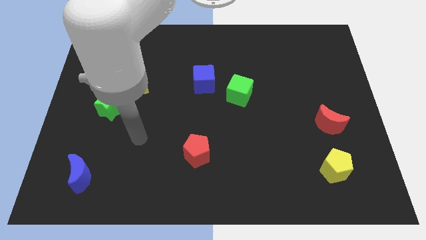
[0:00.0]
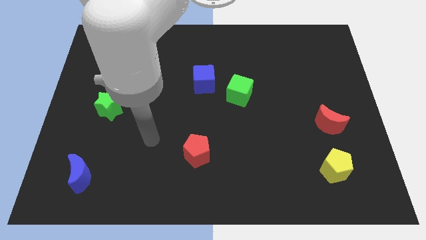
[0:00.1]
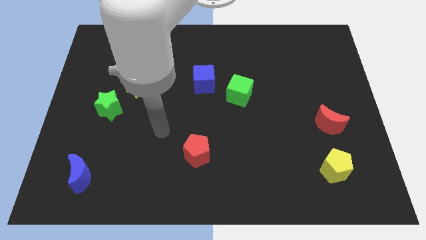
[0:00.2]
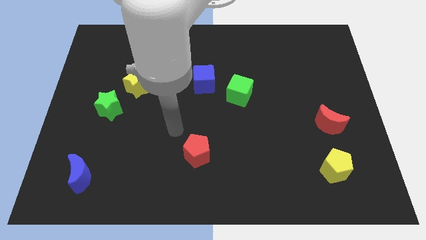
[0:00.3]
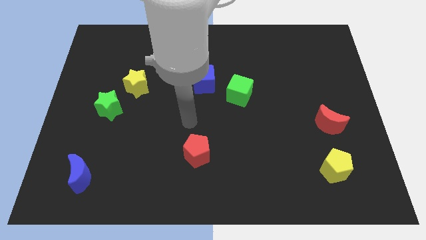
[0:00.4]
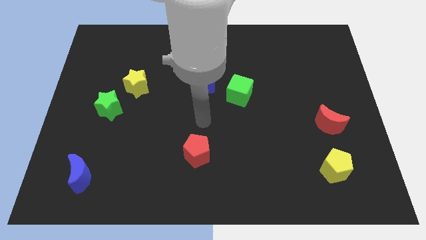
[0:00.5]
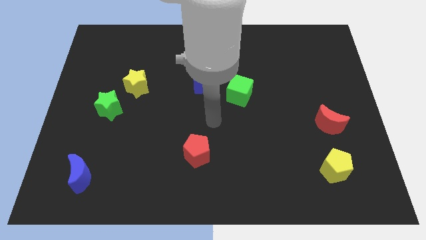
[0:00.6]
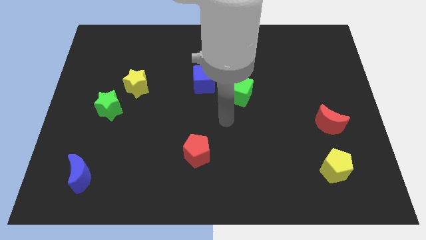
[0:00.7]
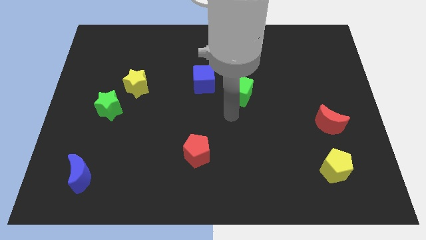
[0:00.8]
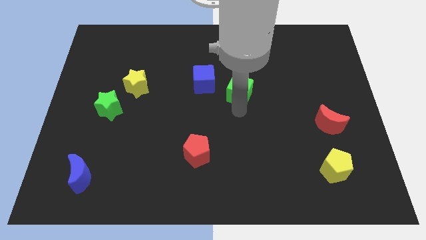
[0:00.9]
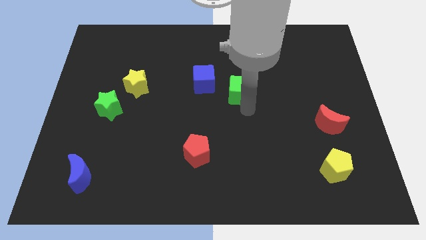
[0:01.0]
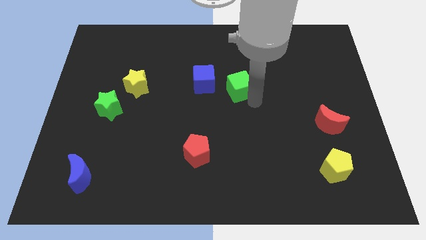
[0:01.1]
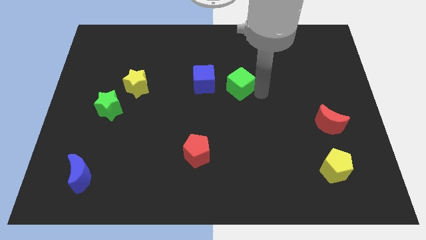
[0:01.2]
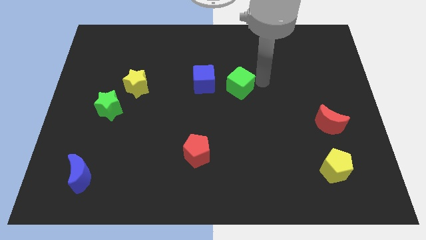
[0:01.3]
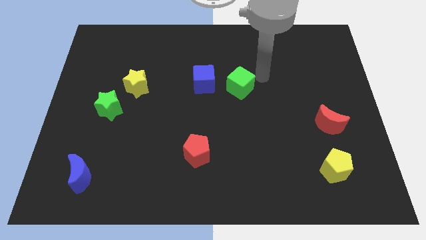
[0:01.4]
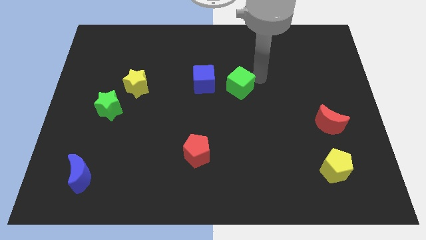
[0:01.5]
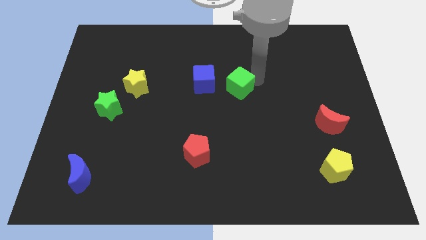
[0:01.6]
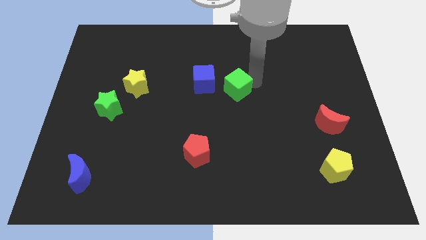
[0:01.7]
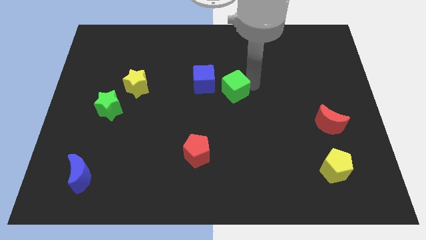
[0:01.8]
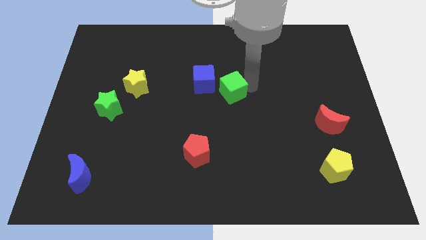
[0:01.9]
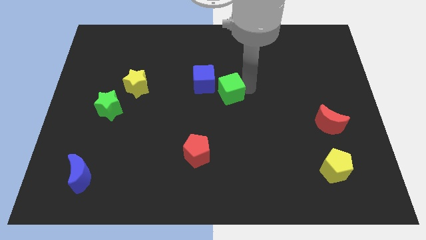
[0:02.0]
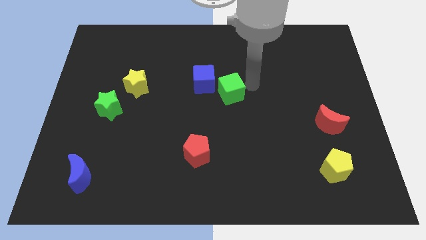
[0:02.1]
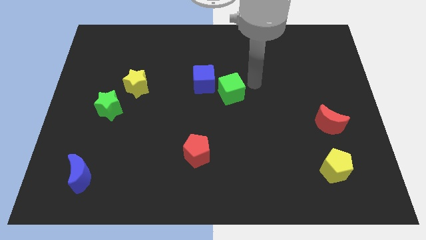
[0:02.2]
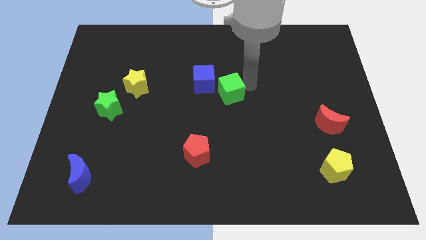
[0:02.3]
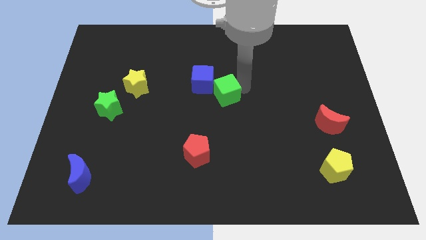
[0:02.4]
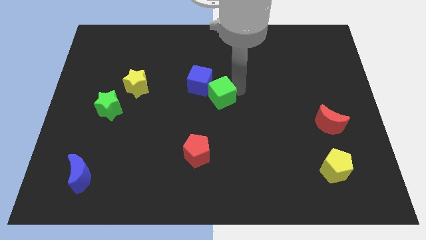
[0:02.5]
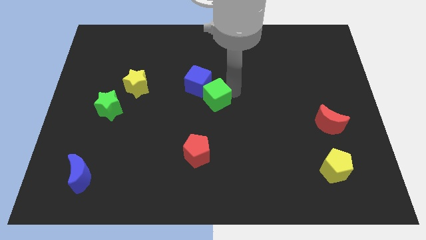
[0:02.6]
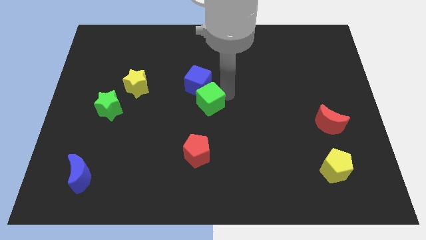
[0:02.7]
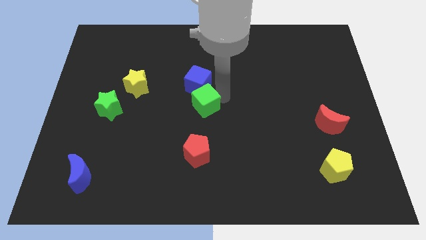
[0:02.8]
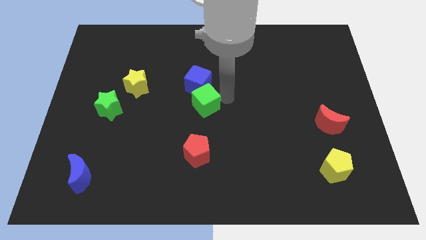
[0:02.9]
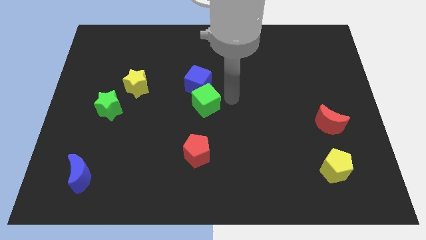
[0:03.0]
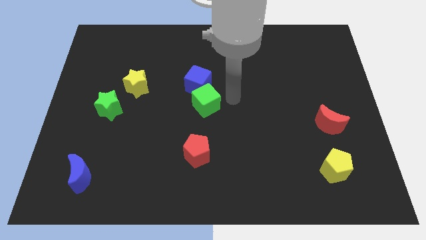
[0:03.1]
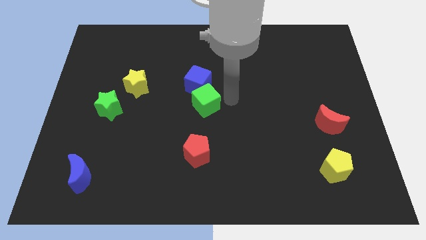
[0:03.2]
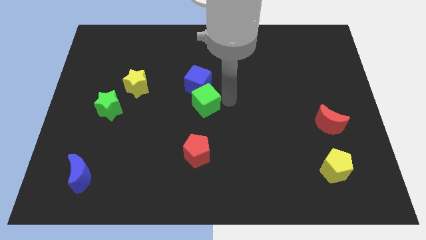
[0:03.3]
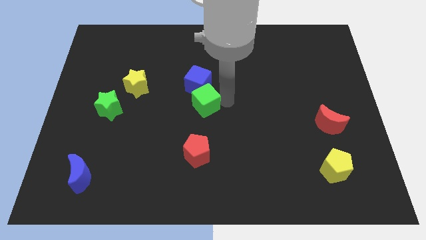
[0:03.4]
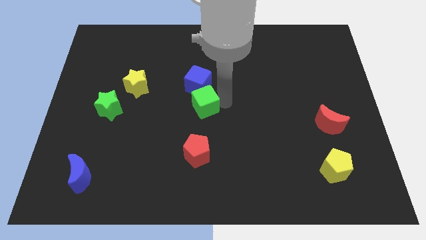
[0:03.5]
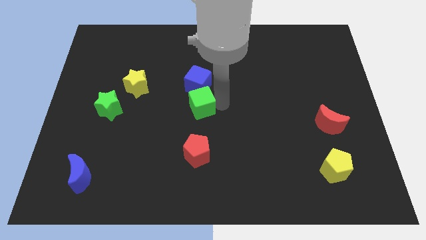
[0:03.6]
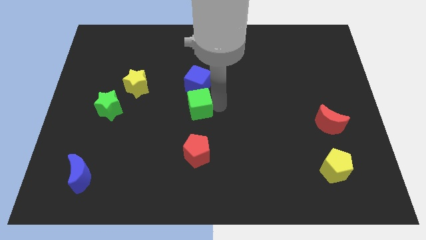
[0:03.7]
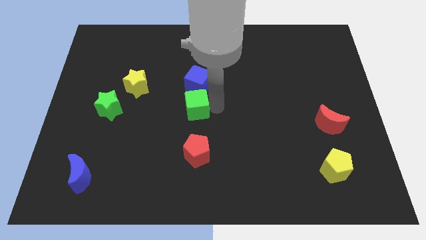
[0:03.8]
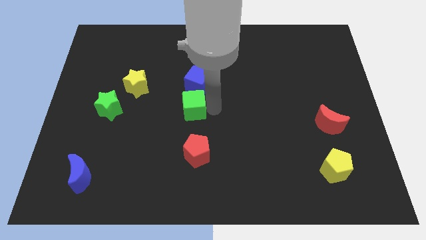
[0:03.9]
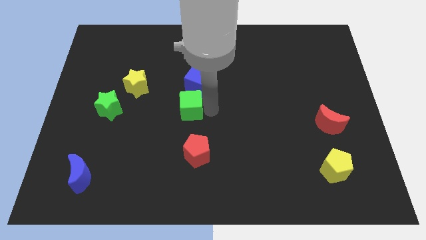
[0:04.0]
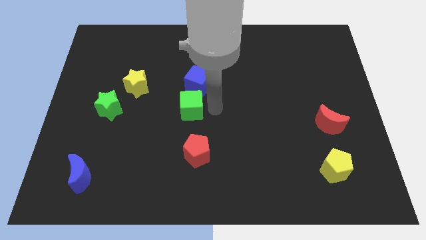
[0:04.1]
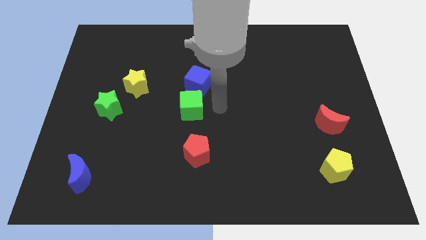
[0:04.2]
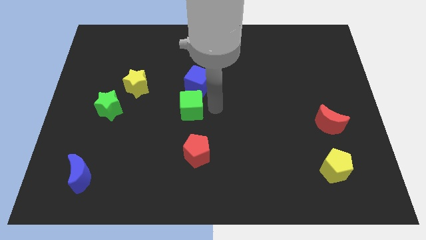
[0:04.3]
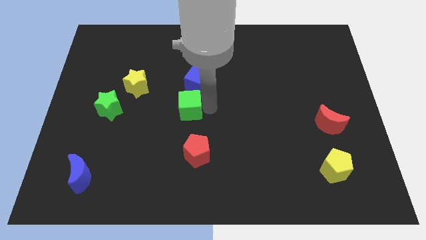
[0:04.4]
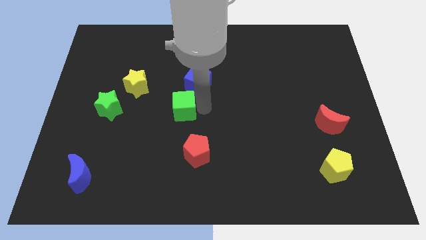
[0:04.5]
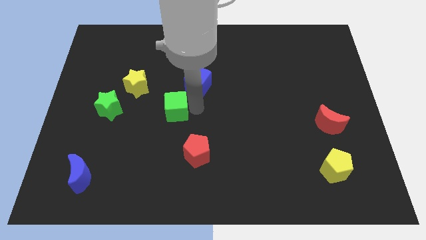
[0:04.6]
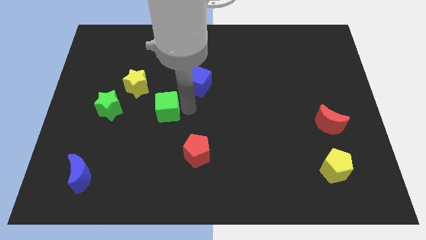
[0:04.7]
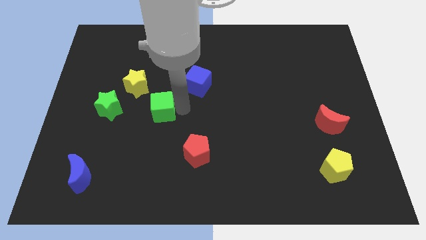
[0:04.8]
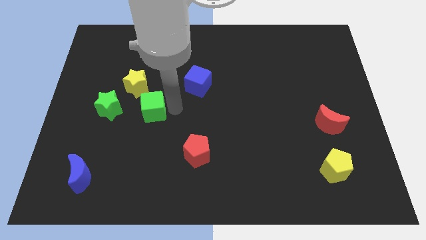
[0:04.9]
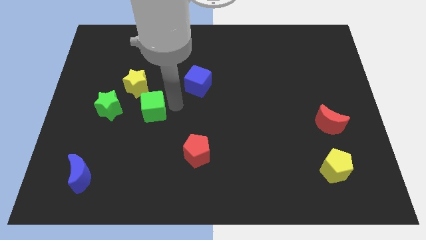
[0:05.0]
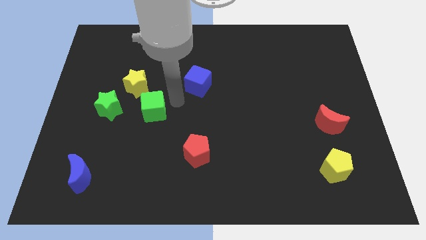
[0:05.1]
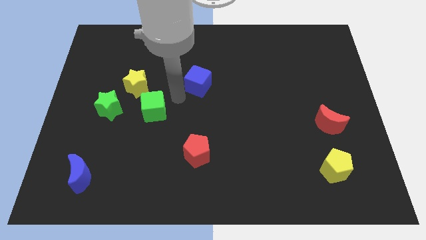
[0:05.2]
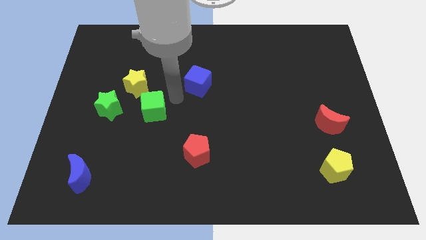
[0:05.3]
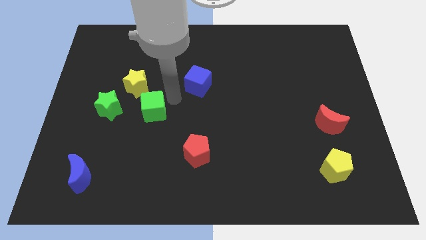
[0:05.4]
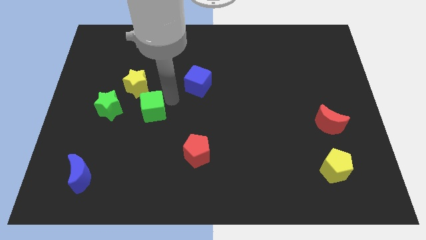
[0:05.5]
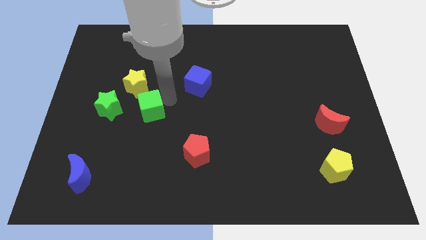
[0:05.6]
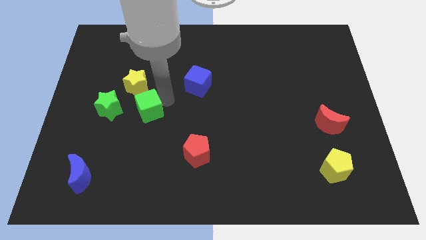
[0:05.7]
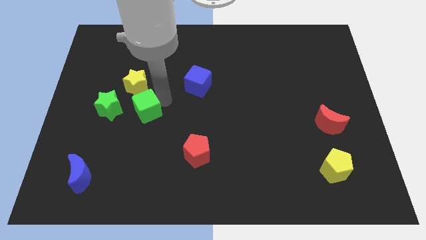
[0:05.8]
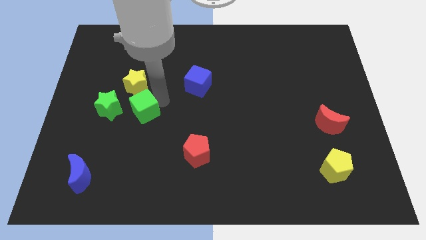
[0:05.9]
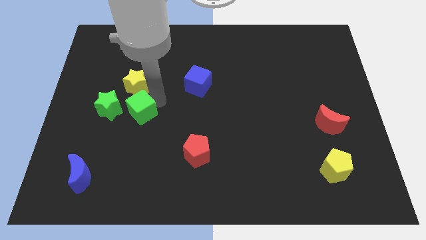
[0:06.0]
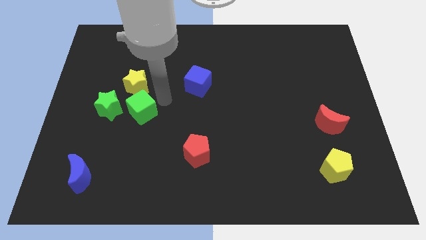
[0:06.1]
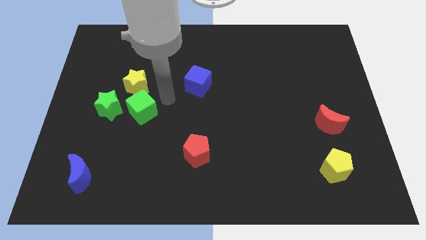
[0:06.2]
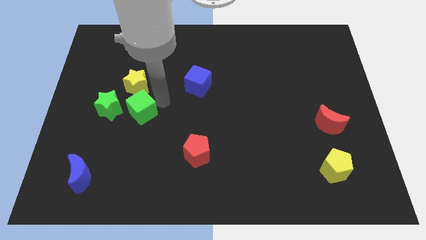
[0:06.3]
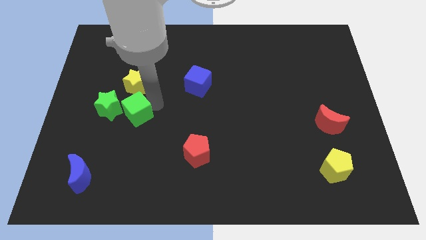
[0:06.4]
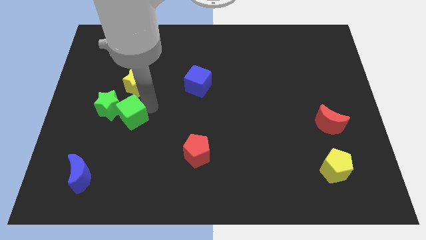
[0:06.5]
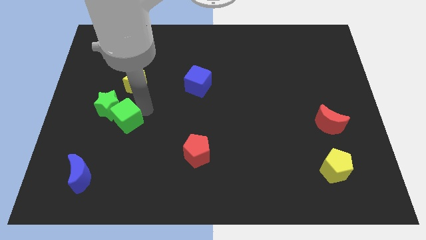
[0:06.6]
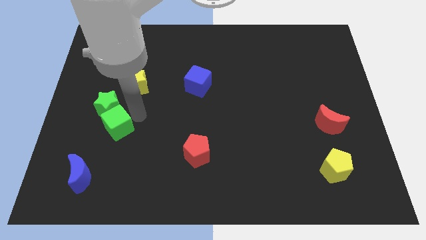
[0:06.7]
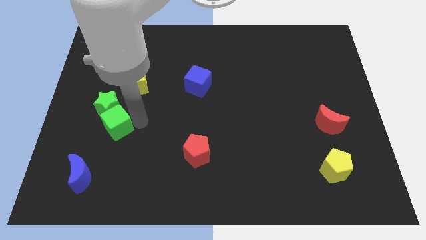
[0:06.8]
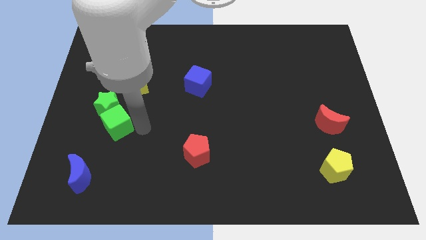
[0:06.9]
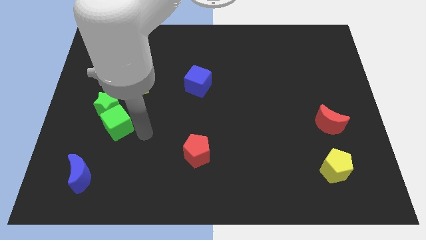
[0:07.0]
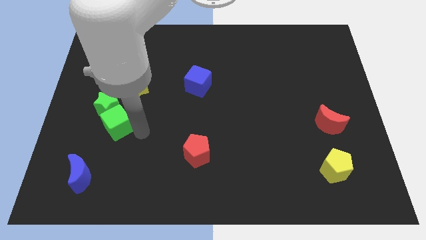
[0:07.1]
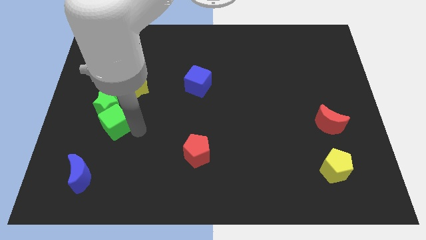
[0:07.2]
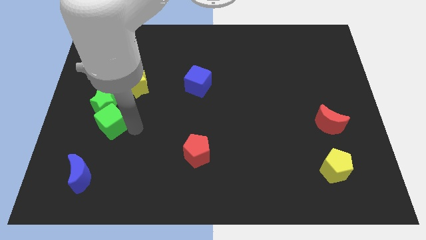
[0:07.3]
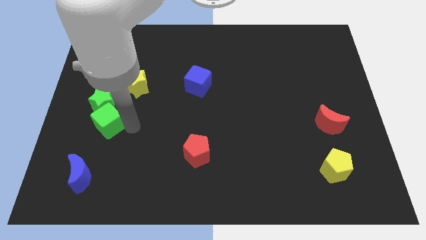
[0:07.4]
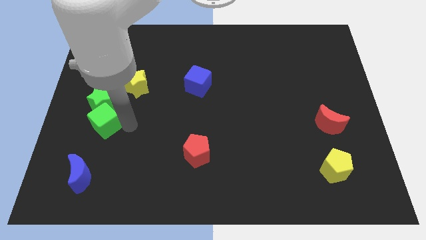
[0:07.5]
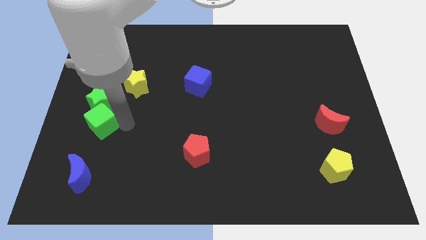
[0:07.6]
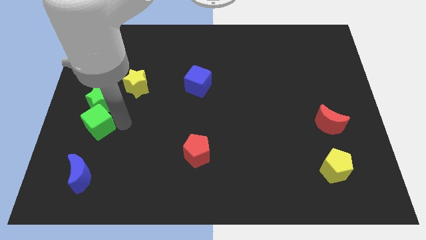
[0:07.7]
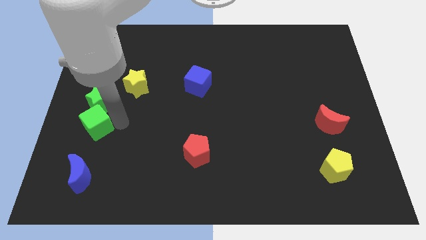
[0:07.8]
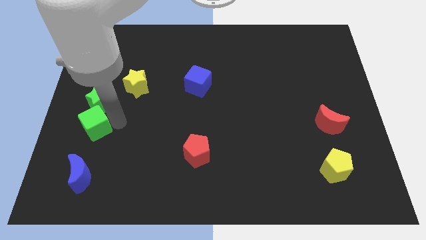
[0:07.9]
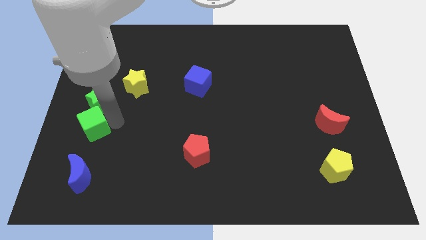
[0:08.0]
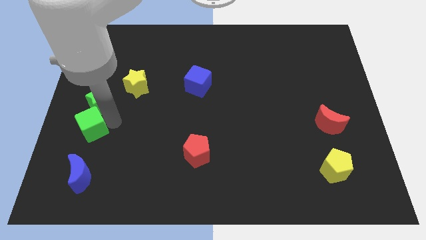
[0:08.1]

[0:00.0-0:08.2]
move the green cube to the left side of the board
